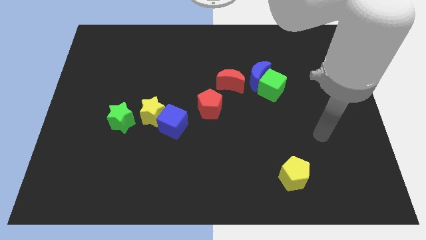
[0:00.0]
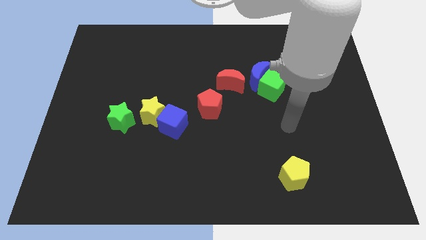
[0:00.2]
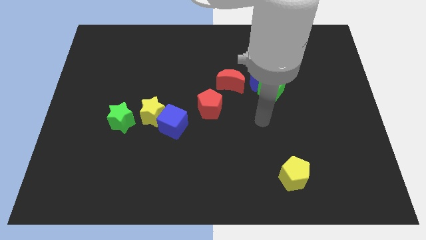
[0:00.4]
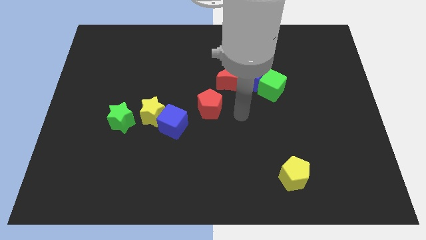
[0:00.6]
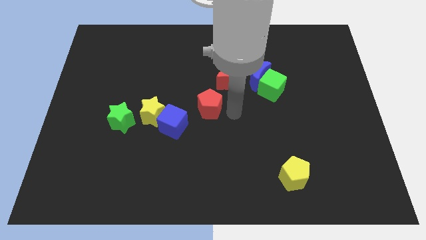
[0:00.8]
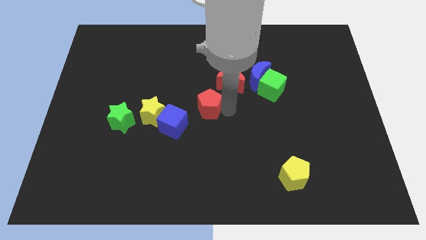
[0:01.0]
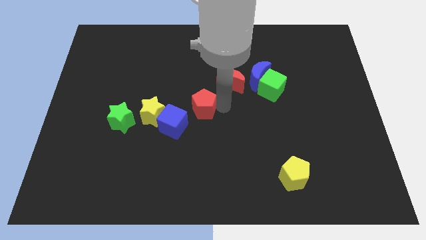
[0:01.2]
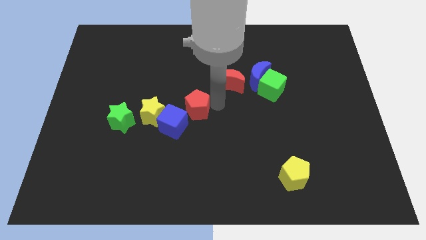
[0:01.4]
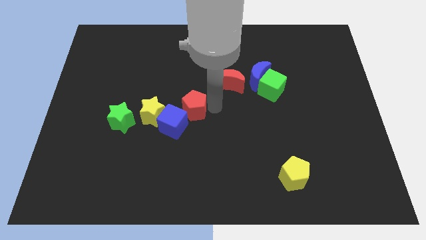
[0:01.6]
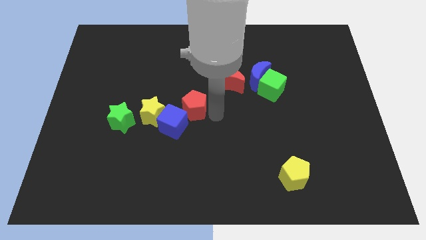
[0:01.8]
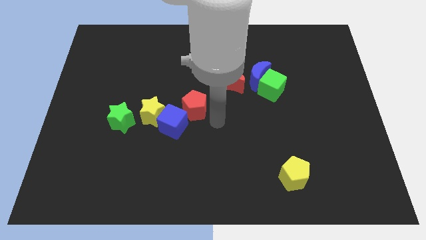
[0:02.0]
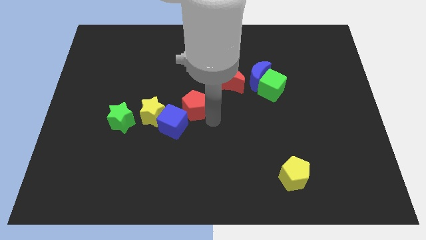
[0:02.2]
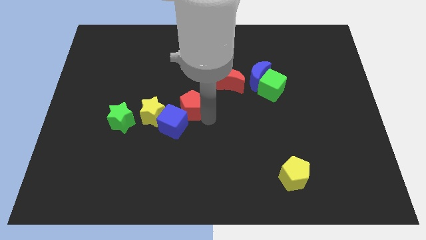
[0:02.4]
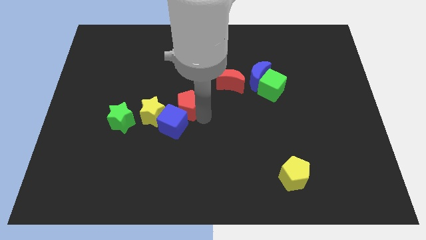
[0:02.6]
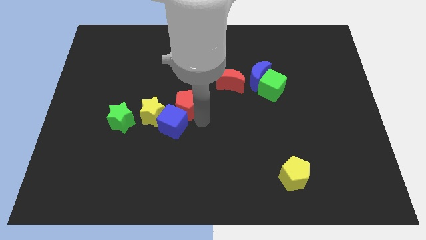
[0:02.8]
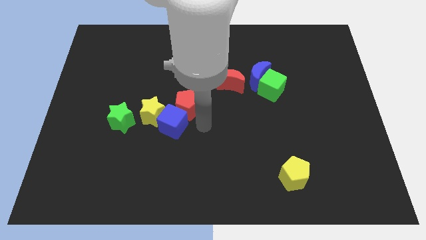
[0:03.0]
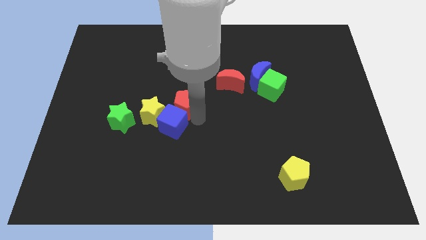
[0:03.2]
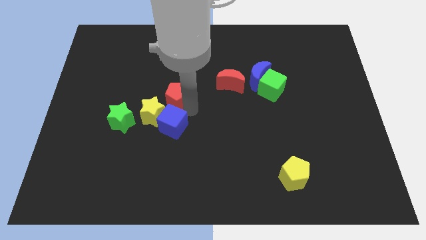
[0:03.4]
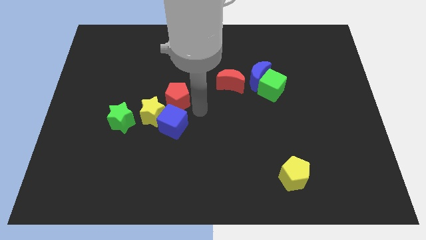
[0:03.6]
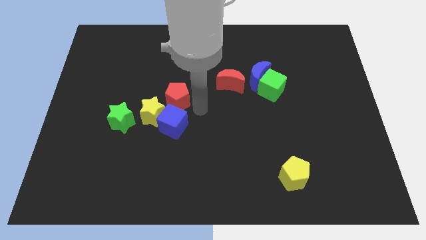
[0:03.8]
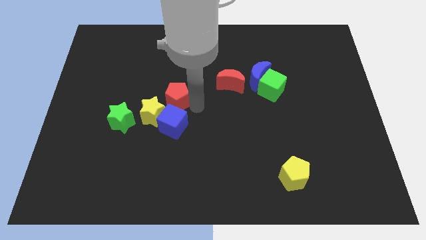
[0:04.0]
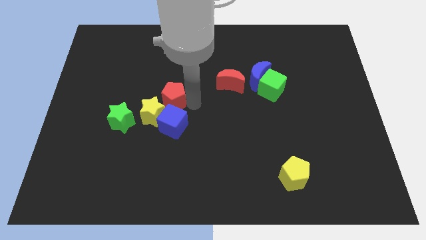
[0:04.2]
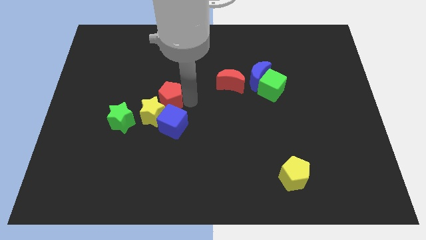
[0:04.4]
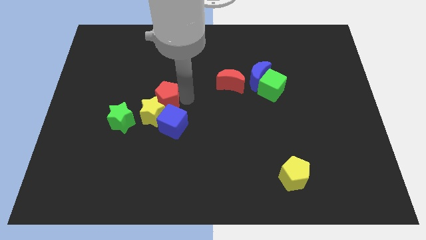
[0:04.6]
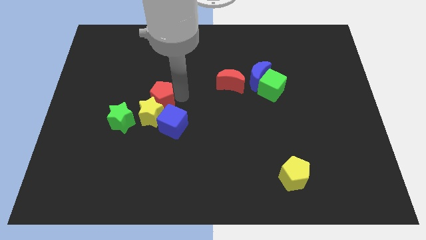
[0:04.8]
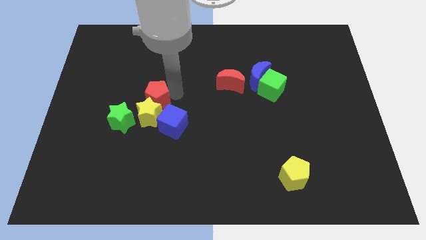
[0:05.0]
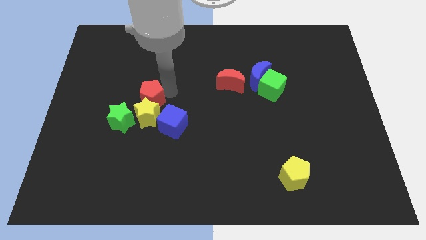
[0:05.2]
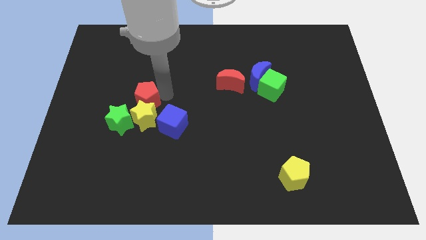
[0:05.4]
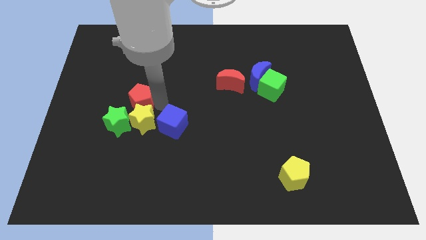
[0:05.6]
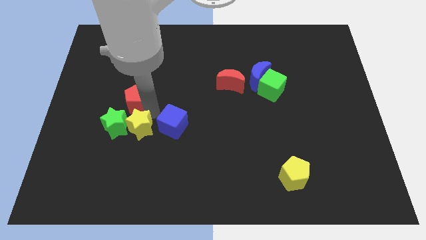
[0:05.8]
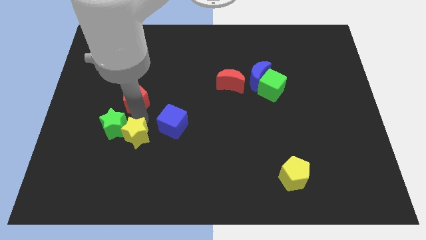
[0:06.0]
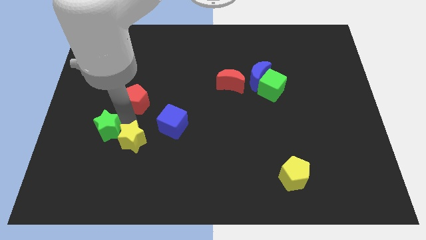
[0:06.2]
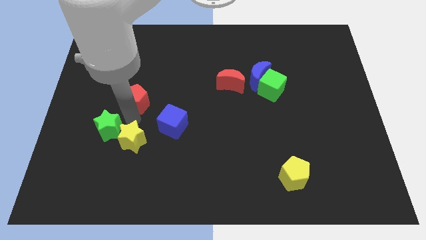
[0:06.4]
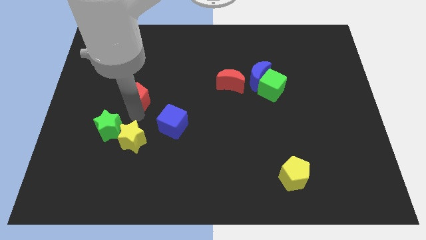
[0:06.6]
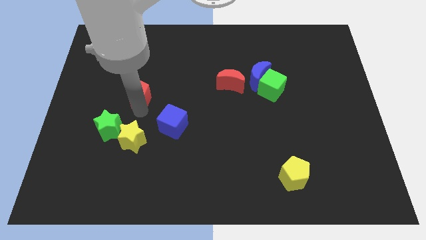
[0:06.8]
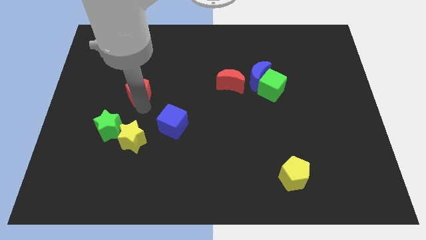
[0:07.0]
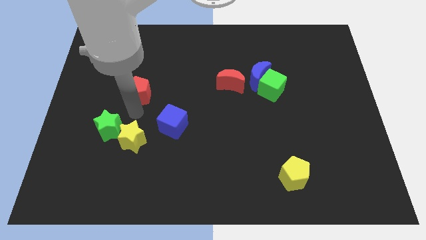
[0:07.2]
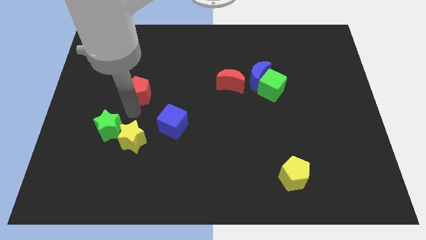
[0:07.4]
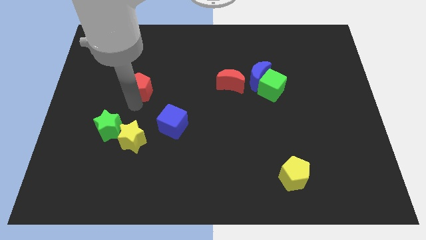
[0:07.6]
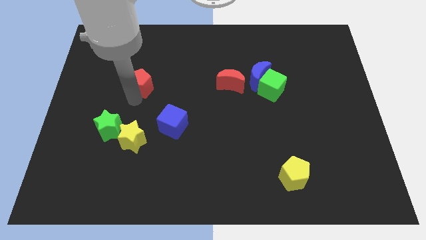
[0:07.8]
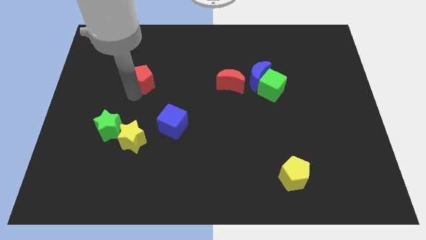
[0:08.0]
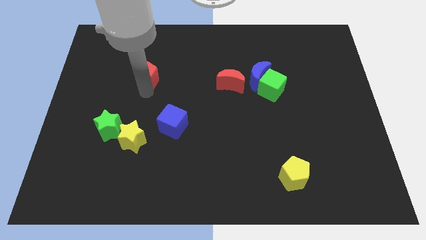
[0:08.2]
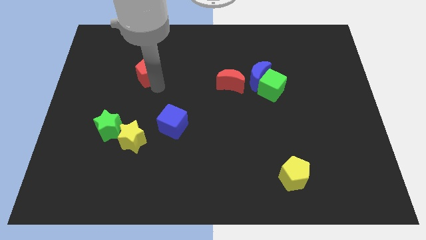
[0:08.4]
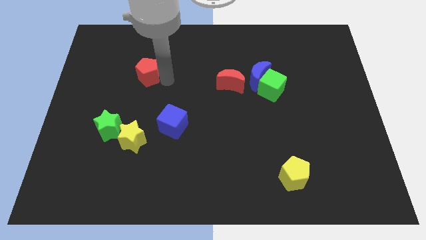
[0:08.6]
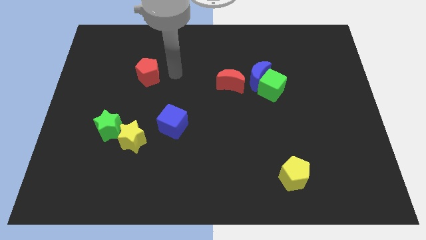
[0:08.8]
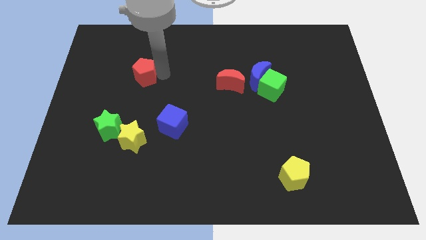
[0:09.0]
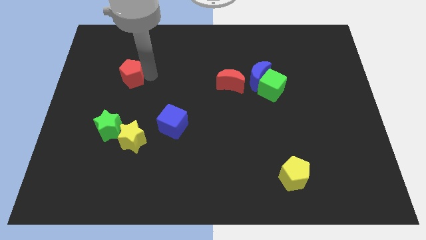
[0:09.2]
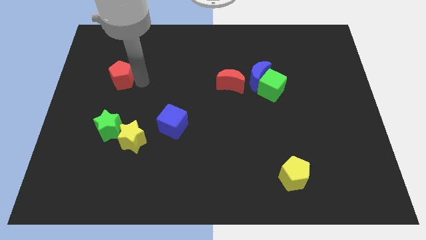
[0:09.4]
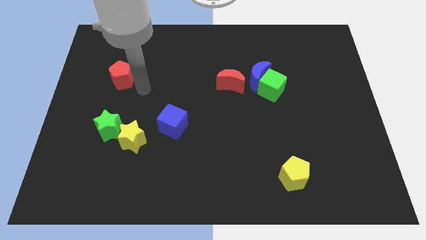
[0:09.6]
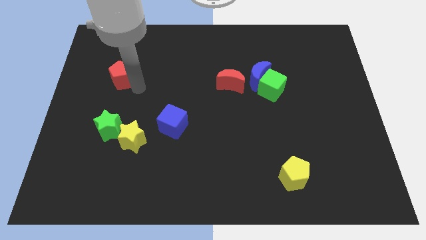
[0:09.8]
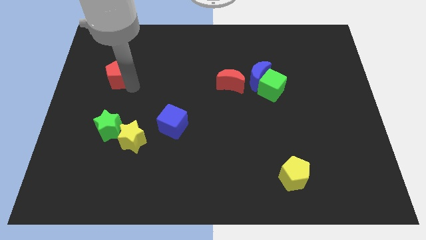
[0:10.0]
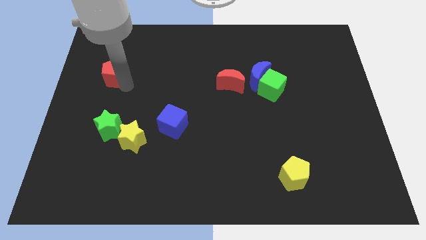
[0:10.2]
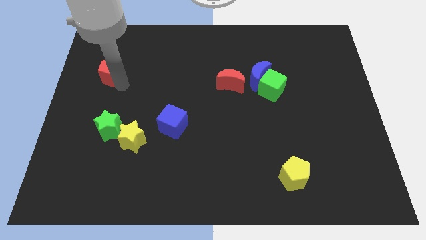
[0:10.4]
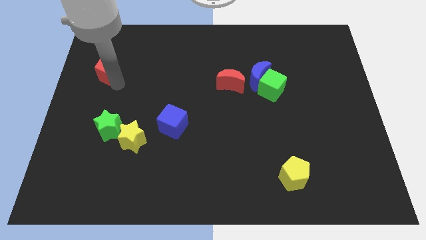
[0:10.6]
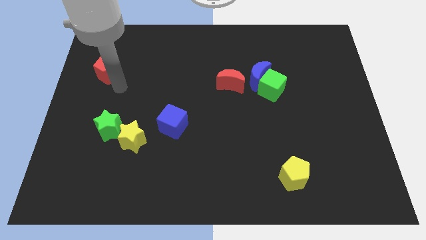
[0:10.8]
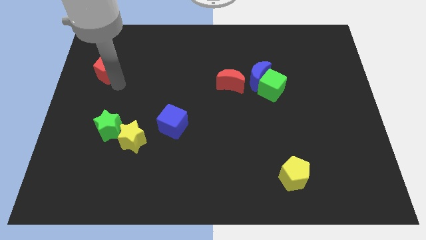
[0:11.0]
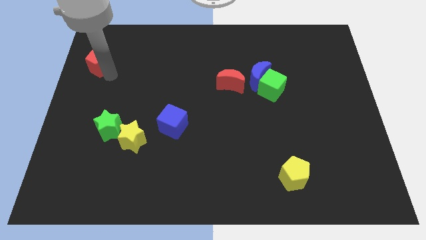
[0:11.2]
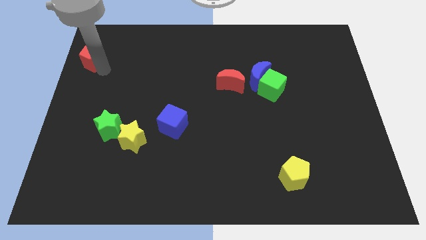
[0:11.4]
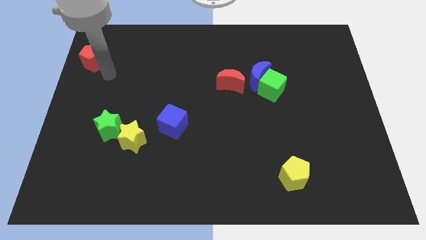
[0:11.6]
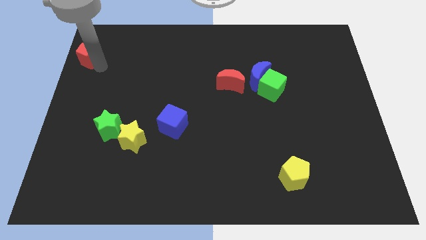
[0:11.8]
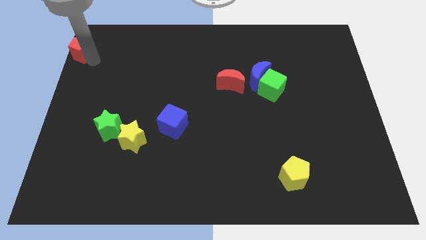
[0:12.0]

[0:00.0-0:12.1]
put the red pentagon to the top left of the board
